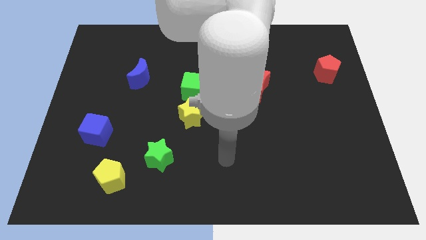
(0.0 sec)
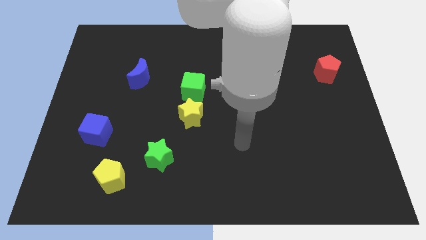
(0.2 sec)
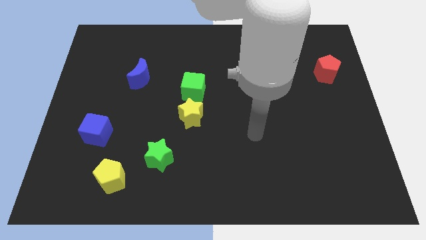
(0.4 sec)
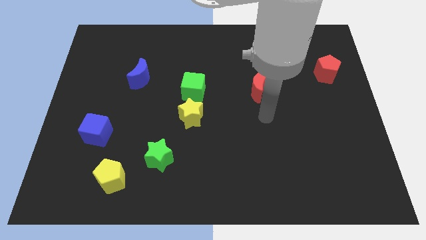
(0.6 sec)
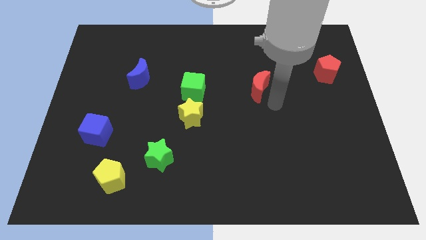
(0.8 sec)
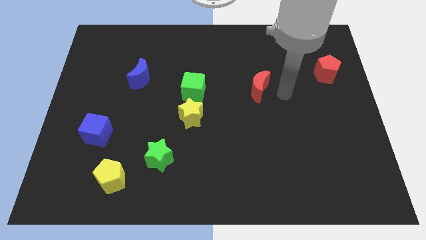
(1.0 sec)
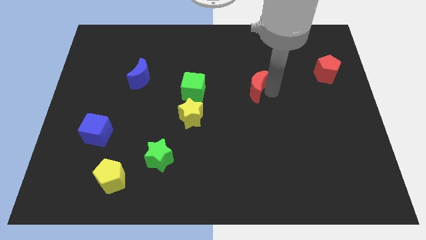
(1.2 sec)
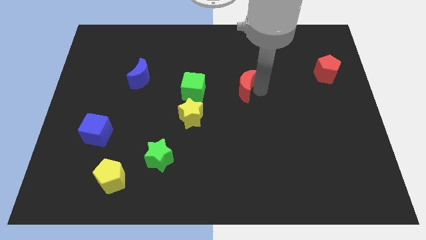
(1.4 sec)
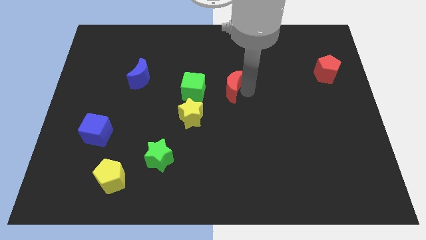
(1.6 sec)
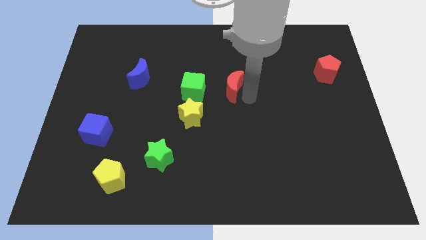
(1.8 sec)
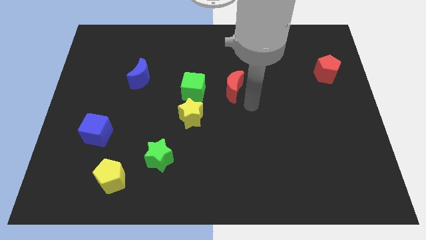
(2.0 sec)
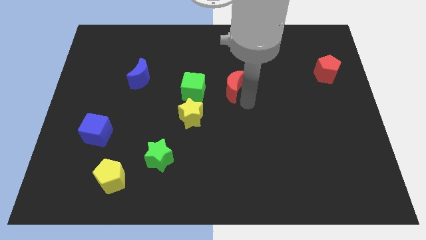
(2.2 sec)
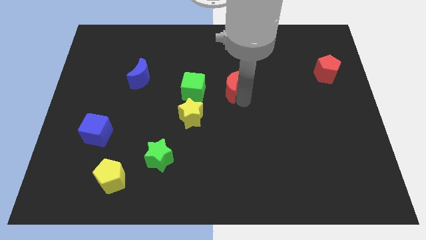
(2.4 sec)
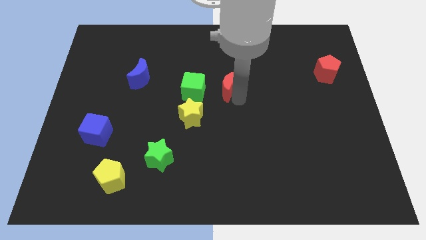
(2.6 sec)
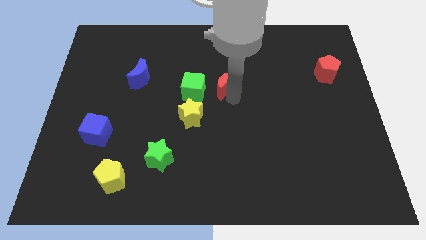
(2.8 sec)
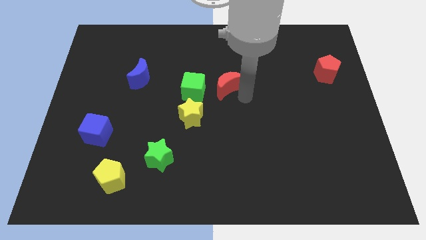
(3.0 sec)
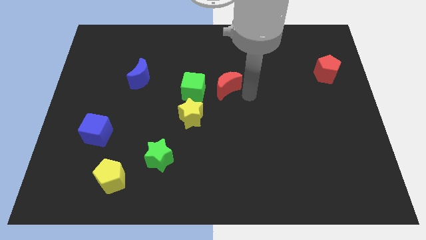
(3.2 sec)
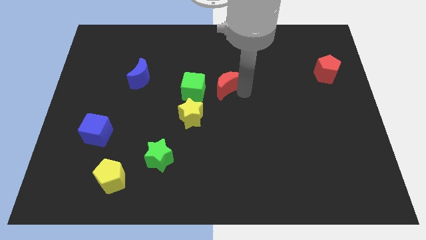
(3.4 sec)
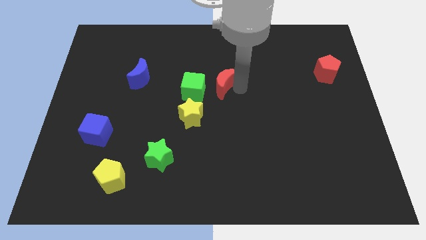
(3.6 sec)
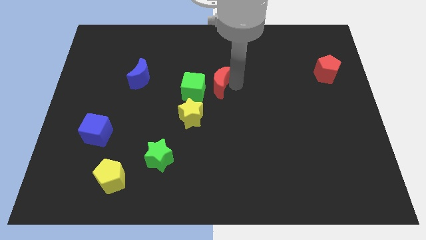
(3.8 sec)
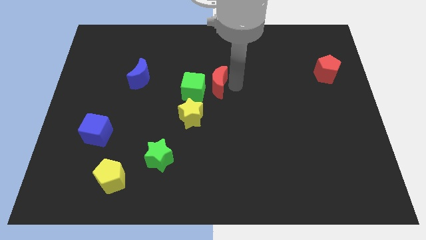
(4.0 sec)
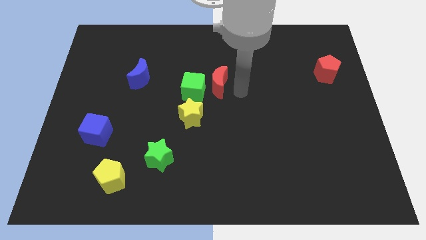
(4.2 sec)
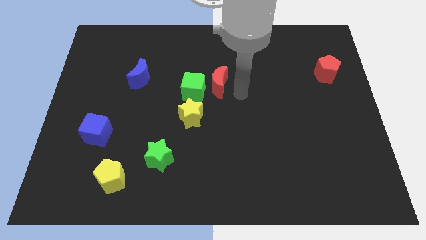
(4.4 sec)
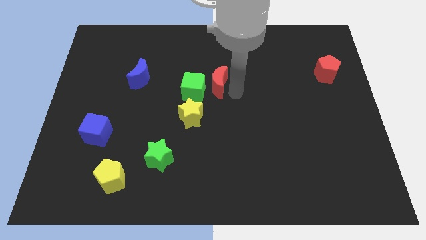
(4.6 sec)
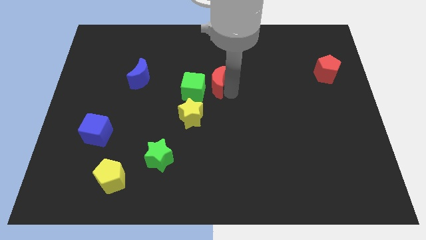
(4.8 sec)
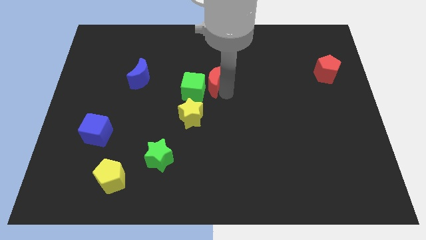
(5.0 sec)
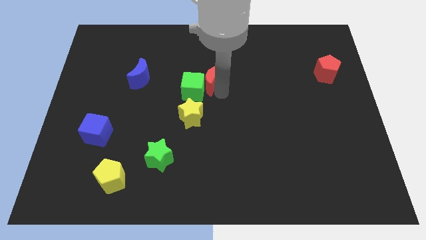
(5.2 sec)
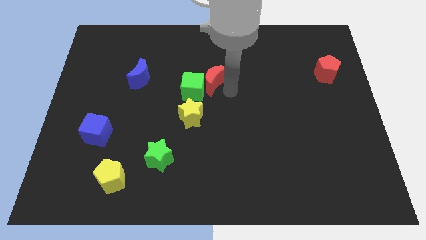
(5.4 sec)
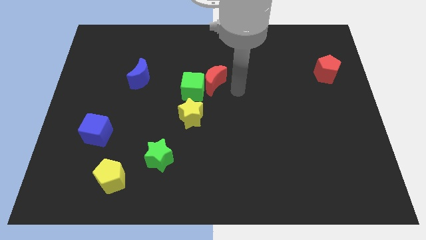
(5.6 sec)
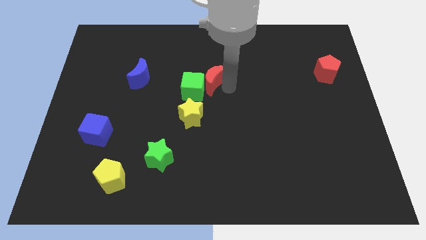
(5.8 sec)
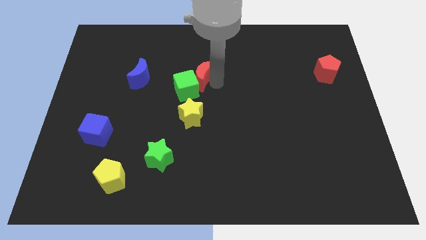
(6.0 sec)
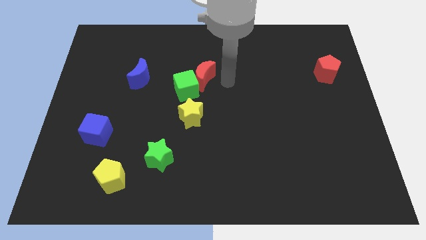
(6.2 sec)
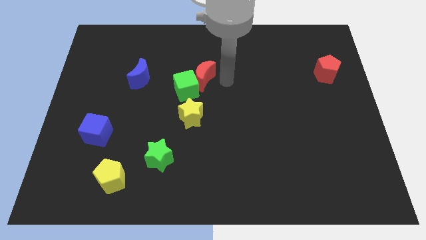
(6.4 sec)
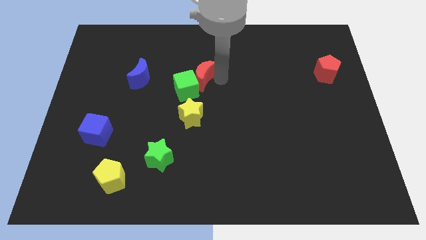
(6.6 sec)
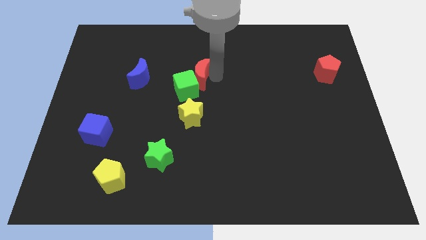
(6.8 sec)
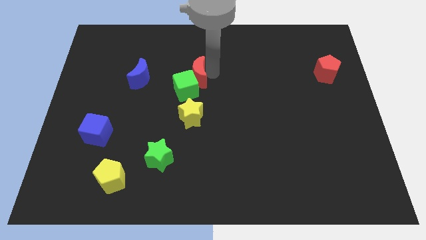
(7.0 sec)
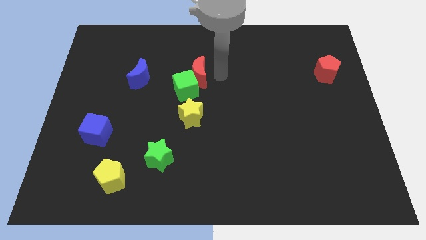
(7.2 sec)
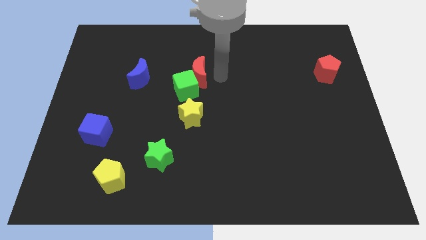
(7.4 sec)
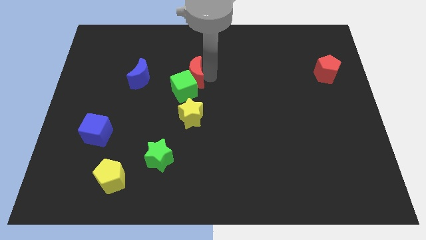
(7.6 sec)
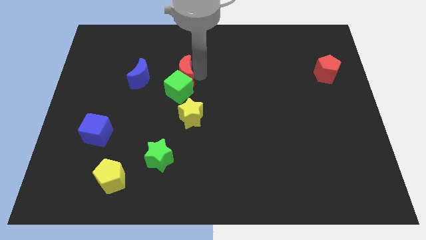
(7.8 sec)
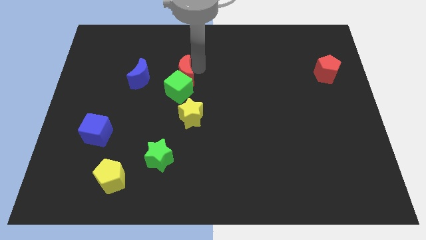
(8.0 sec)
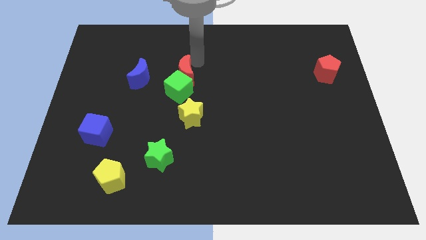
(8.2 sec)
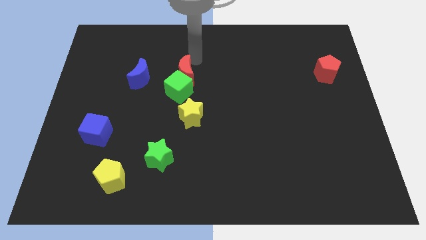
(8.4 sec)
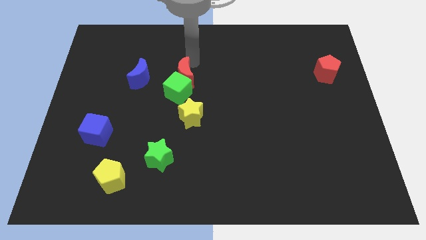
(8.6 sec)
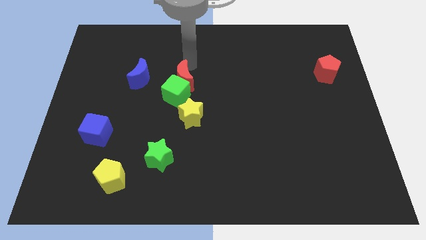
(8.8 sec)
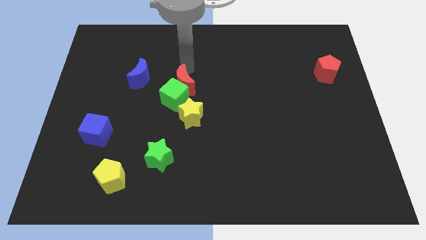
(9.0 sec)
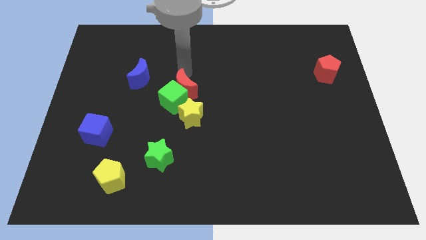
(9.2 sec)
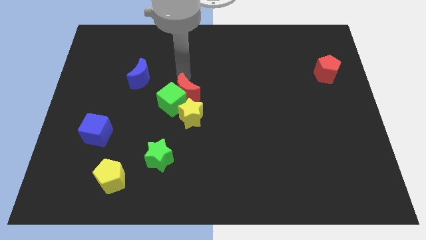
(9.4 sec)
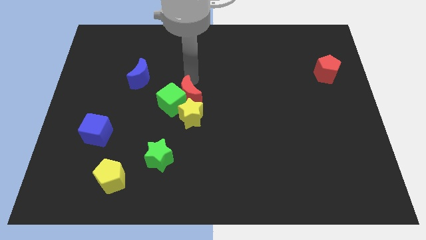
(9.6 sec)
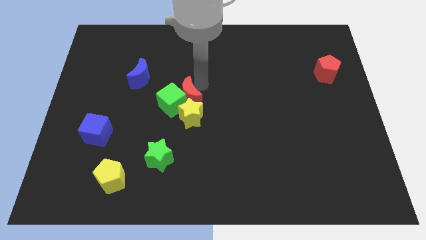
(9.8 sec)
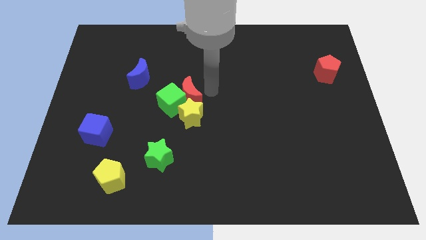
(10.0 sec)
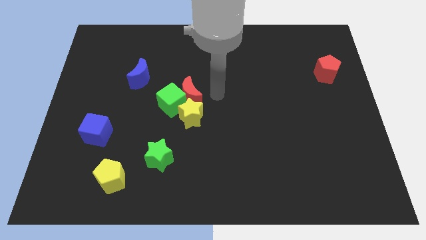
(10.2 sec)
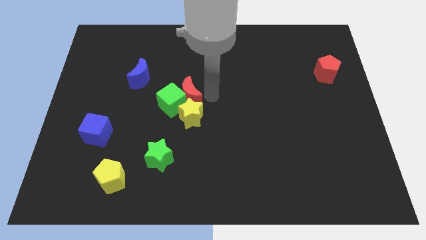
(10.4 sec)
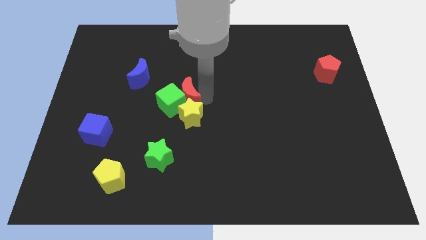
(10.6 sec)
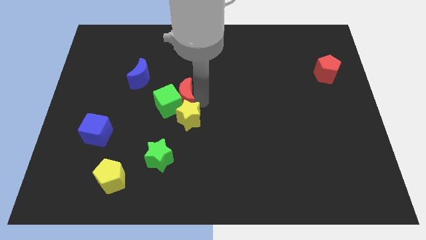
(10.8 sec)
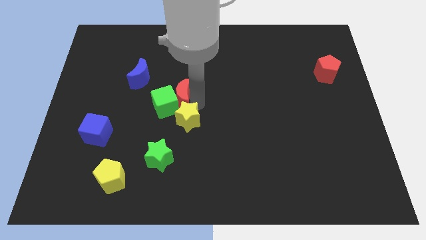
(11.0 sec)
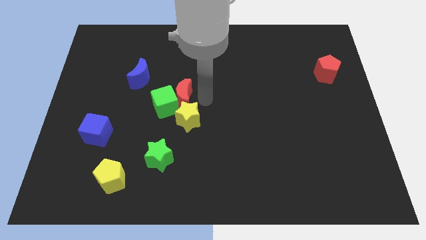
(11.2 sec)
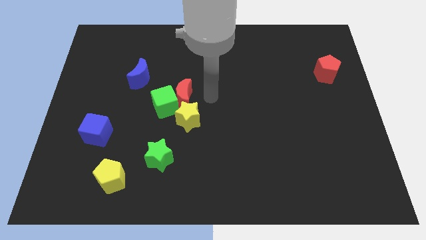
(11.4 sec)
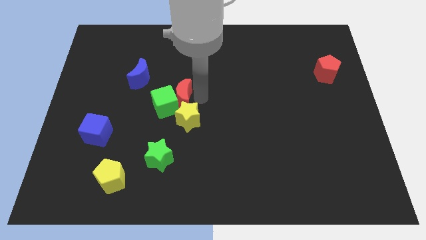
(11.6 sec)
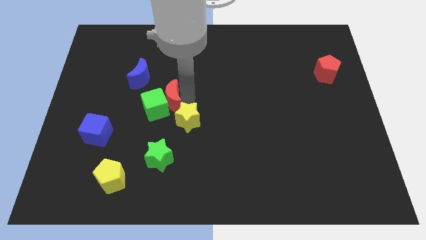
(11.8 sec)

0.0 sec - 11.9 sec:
move the red moon left

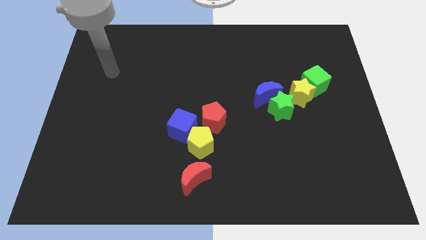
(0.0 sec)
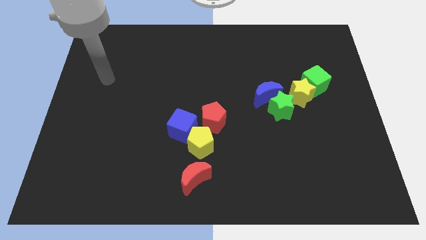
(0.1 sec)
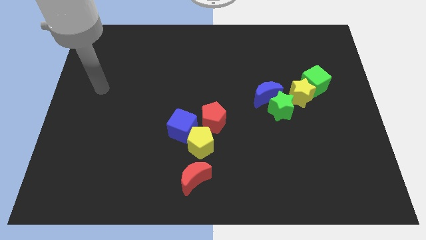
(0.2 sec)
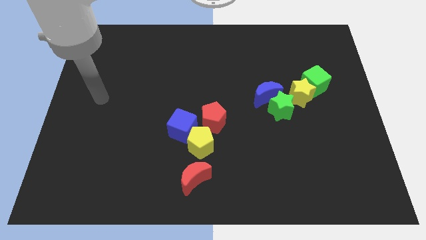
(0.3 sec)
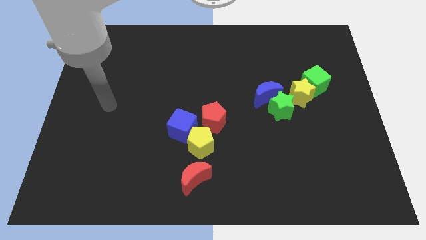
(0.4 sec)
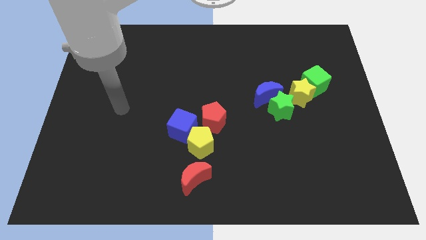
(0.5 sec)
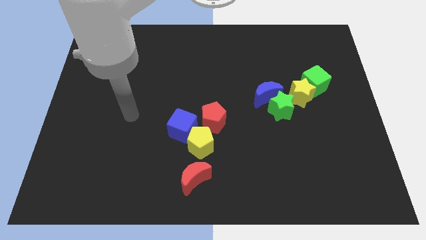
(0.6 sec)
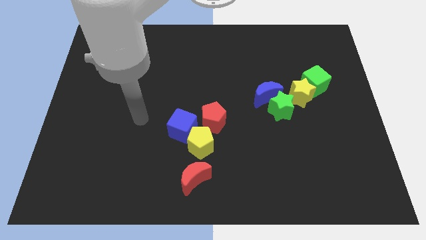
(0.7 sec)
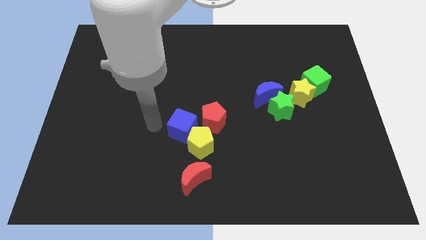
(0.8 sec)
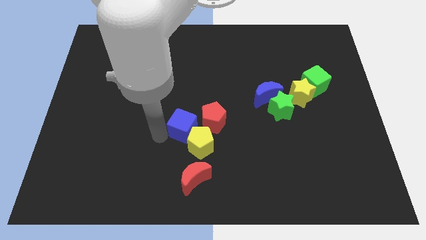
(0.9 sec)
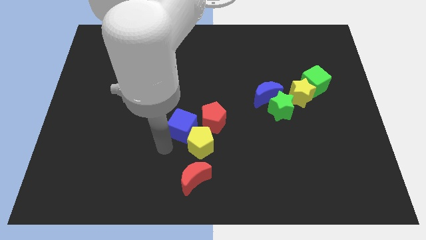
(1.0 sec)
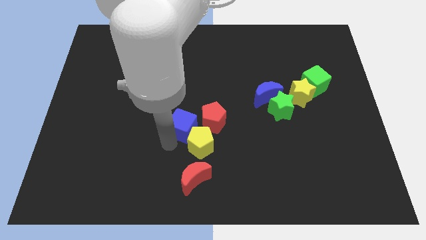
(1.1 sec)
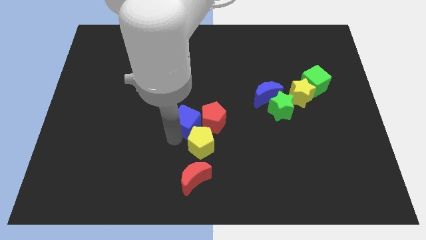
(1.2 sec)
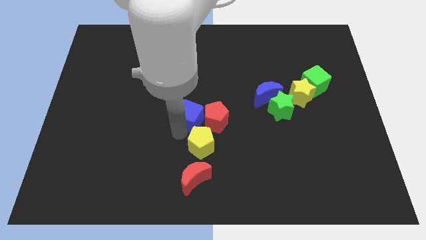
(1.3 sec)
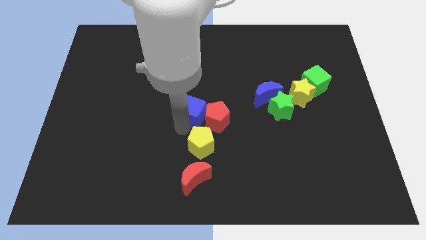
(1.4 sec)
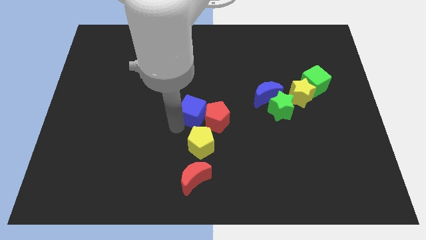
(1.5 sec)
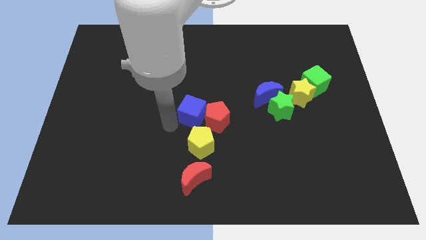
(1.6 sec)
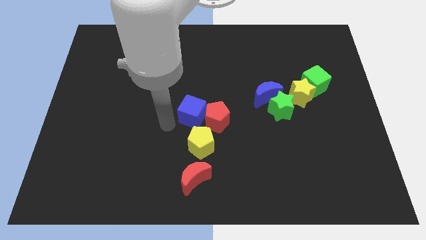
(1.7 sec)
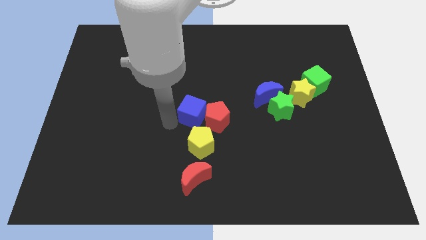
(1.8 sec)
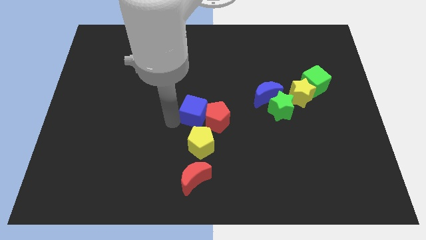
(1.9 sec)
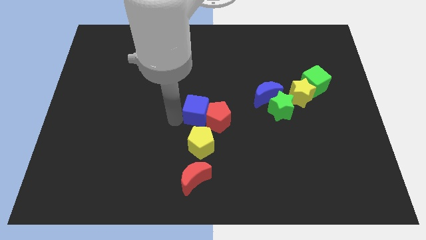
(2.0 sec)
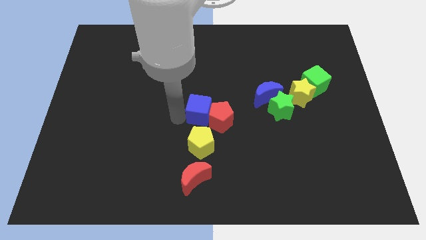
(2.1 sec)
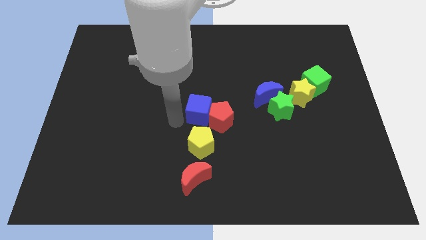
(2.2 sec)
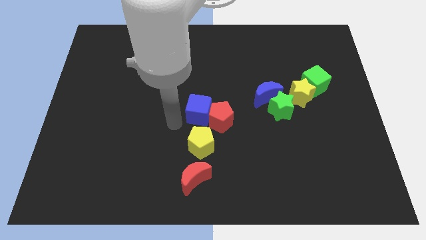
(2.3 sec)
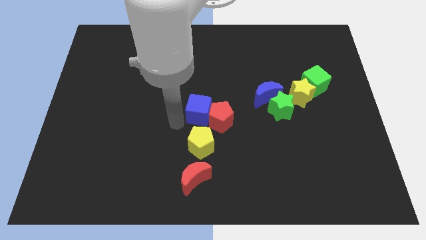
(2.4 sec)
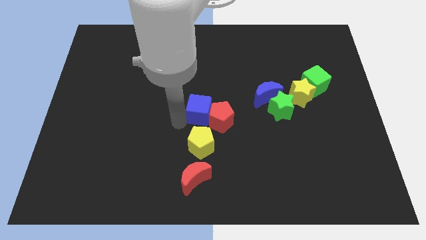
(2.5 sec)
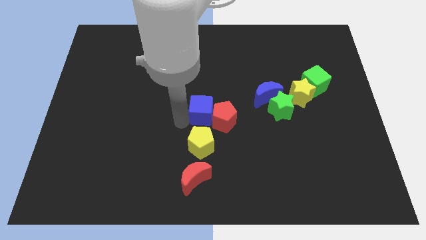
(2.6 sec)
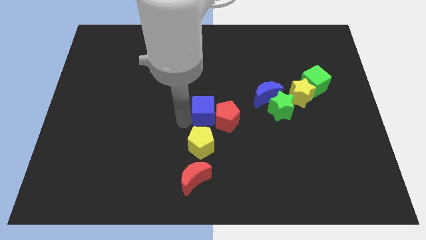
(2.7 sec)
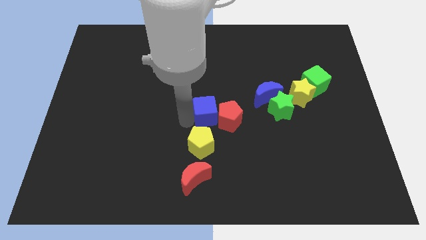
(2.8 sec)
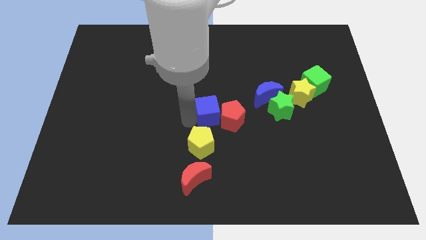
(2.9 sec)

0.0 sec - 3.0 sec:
push the blue cube a little up and right
